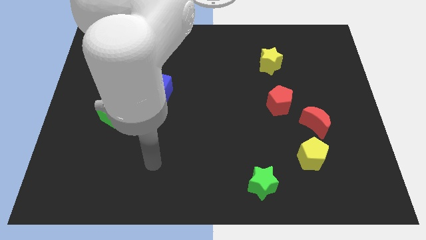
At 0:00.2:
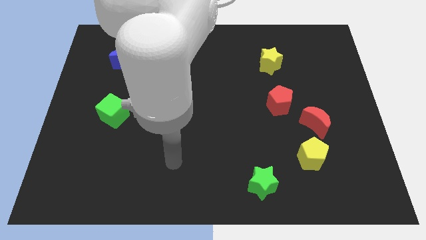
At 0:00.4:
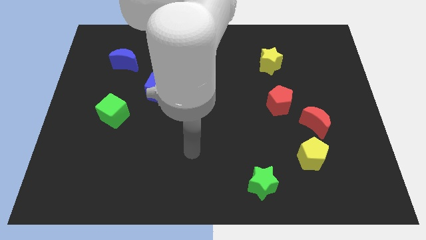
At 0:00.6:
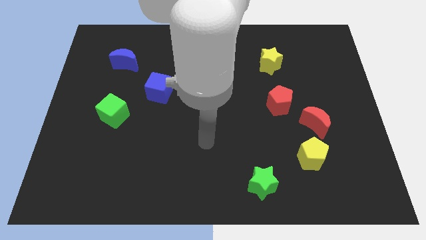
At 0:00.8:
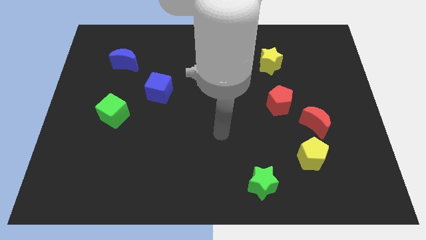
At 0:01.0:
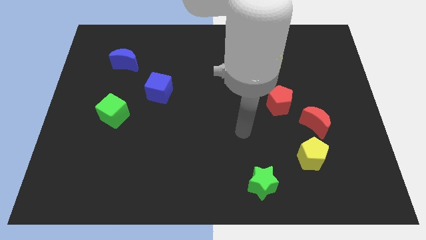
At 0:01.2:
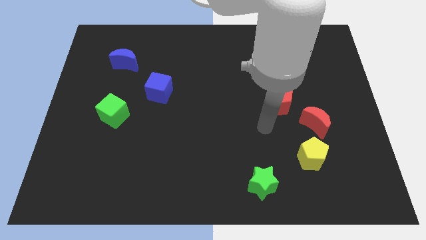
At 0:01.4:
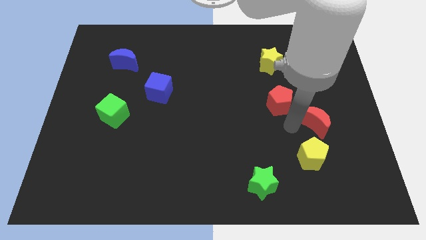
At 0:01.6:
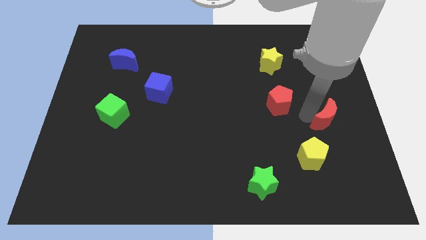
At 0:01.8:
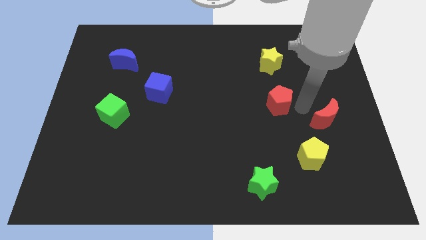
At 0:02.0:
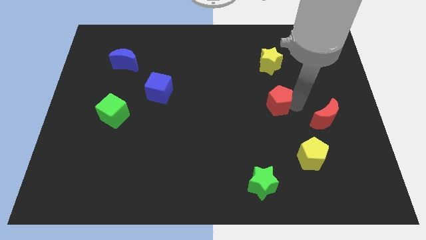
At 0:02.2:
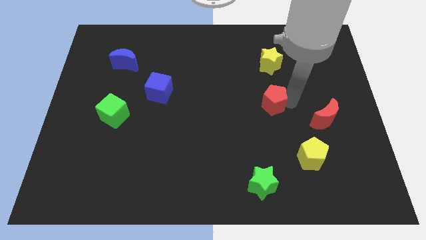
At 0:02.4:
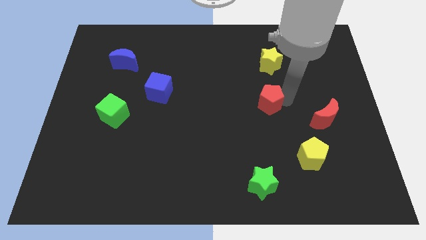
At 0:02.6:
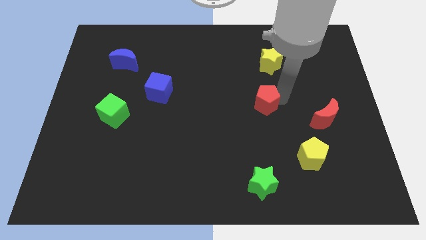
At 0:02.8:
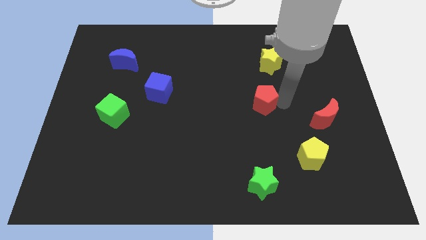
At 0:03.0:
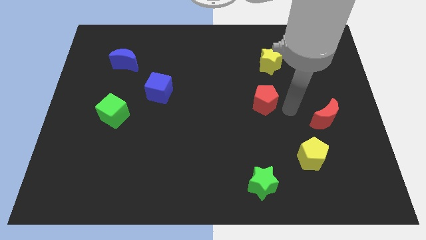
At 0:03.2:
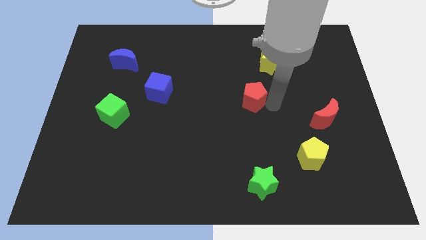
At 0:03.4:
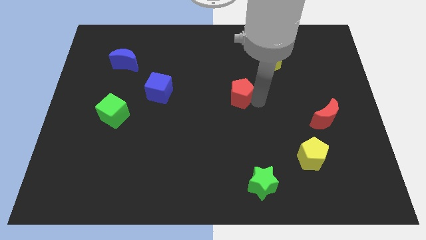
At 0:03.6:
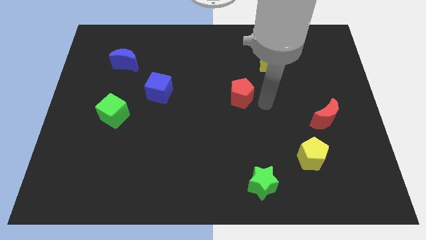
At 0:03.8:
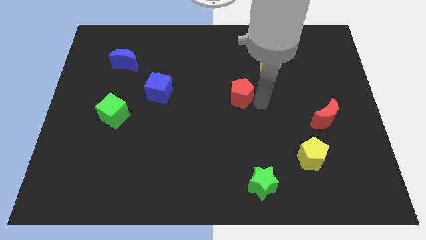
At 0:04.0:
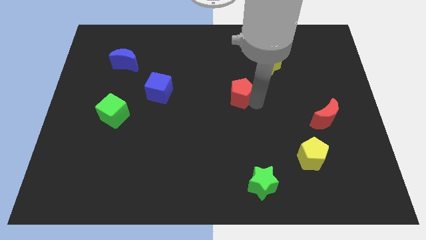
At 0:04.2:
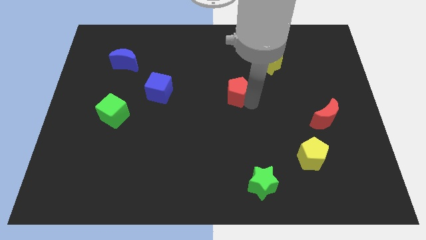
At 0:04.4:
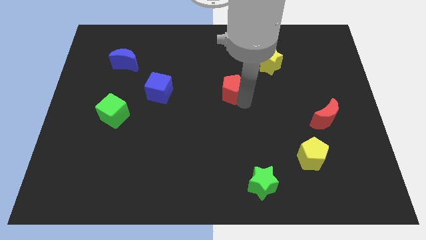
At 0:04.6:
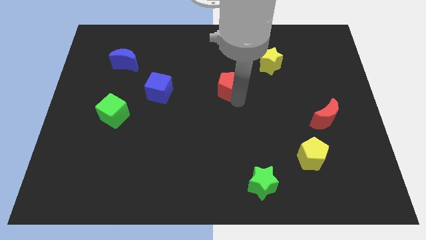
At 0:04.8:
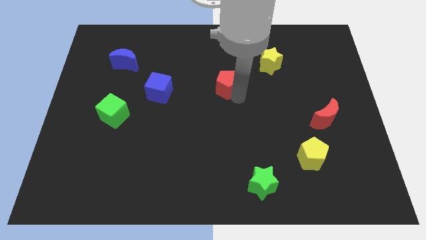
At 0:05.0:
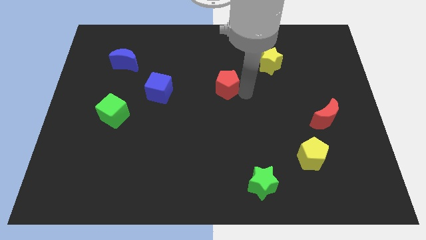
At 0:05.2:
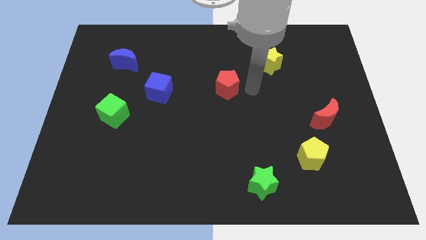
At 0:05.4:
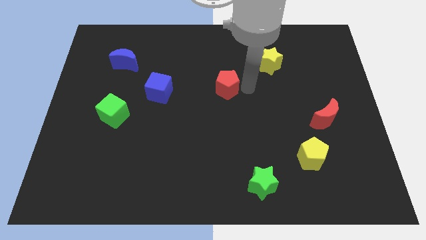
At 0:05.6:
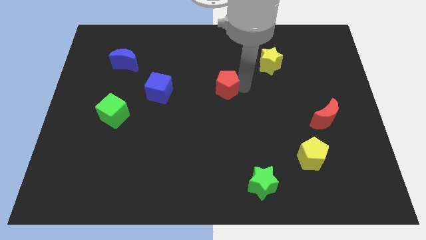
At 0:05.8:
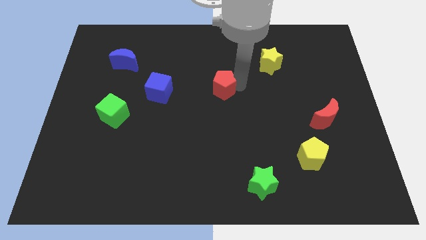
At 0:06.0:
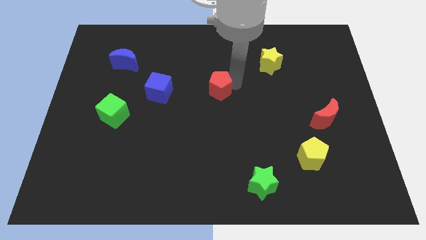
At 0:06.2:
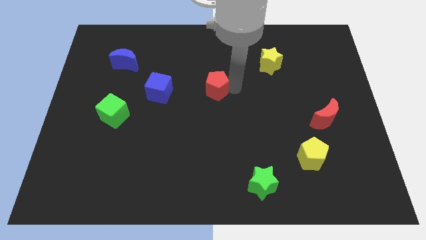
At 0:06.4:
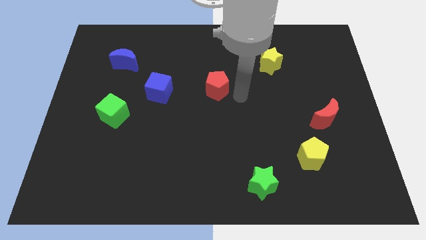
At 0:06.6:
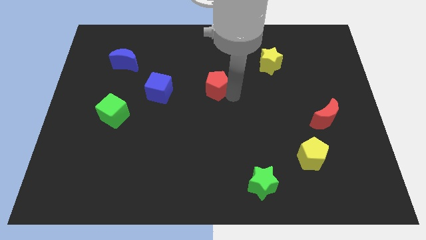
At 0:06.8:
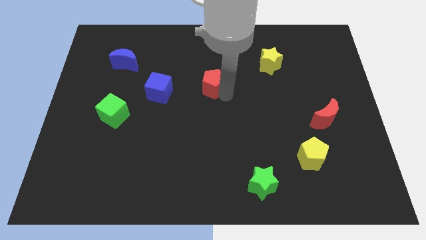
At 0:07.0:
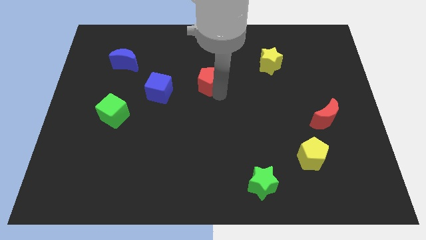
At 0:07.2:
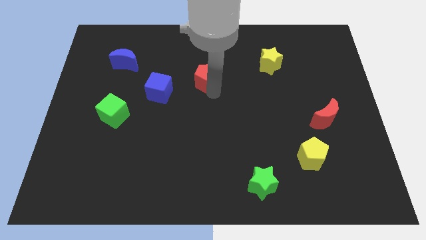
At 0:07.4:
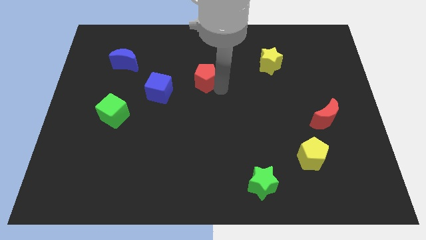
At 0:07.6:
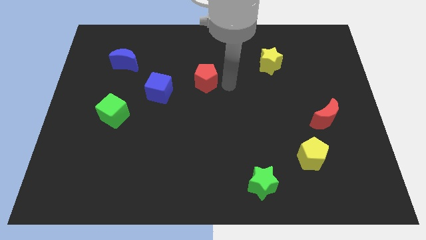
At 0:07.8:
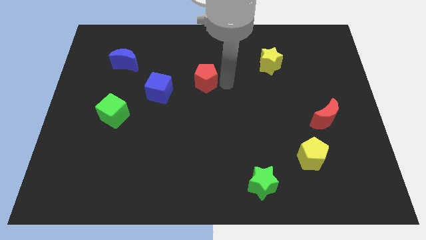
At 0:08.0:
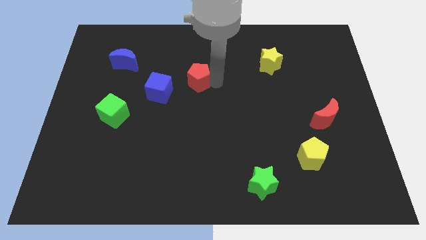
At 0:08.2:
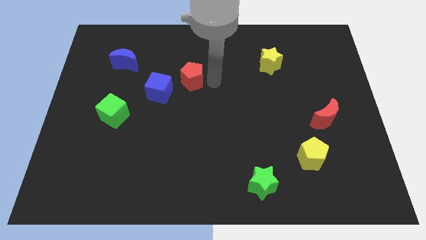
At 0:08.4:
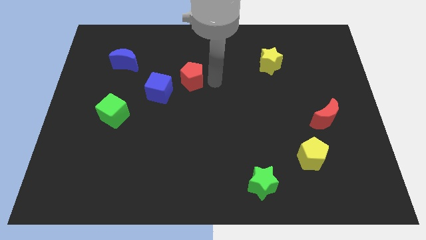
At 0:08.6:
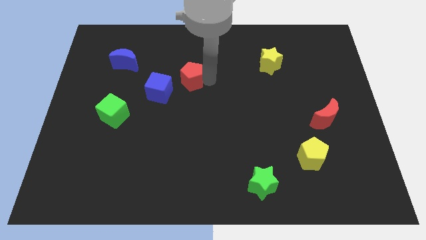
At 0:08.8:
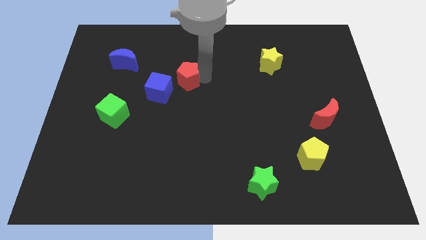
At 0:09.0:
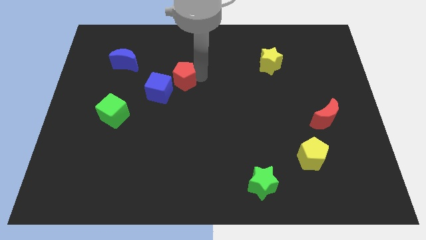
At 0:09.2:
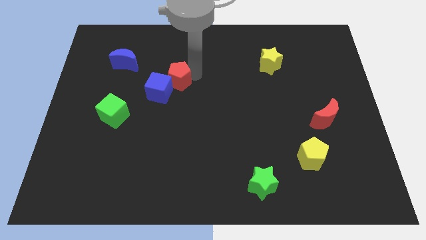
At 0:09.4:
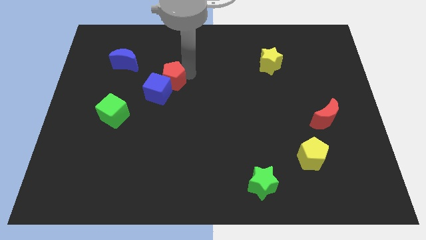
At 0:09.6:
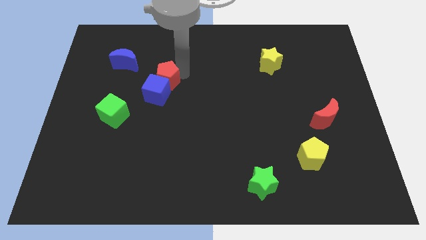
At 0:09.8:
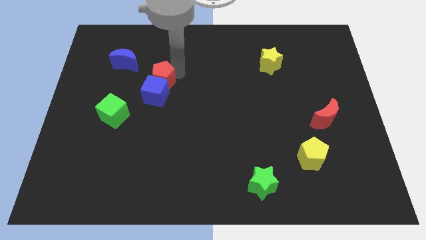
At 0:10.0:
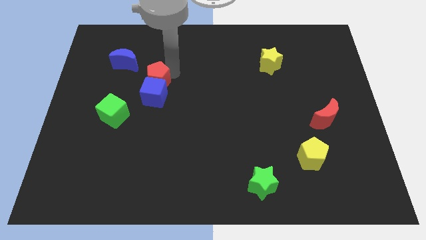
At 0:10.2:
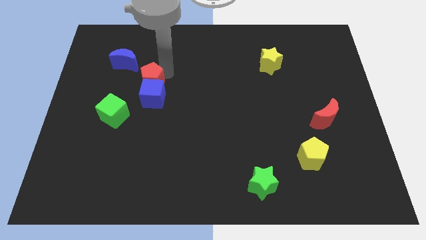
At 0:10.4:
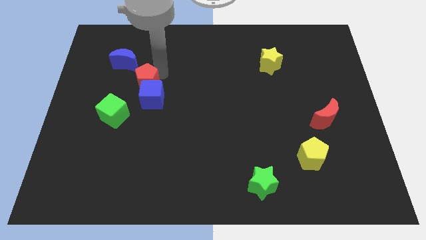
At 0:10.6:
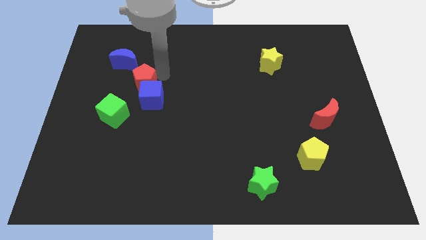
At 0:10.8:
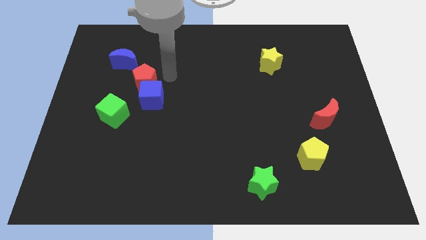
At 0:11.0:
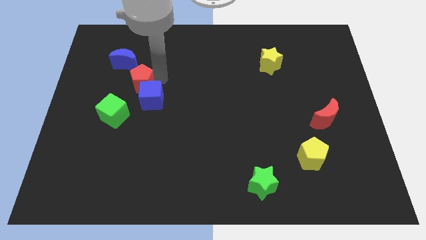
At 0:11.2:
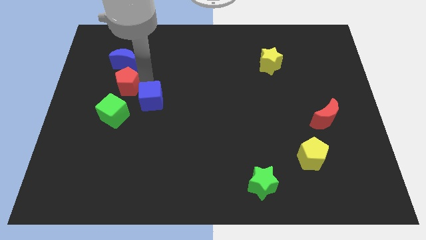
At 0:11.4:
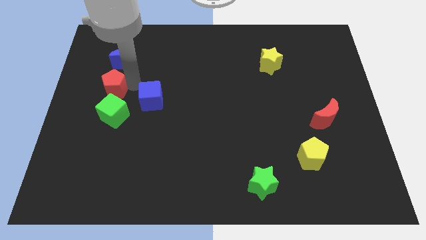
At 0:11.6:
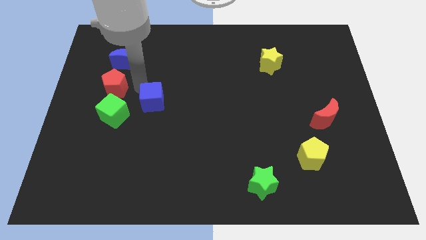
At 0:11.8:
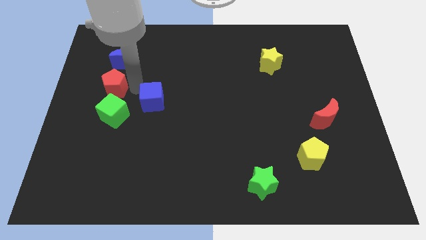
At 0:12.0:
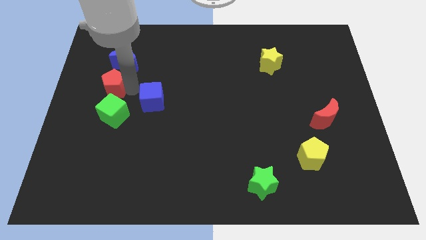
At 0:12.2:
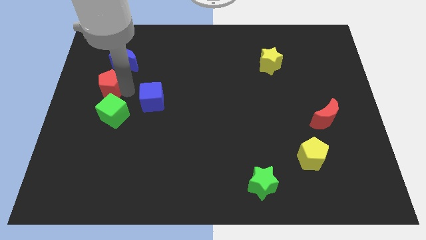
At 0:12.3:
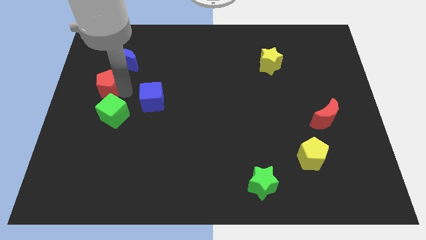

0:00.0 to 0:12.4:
move the red pentagon to the left side of the board

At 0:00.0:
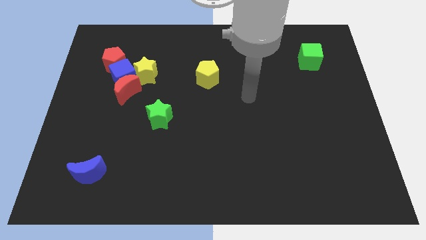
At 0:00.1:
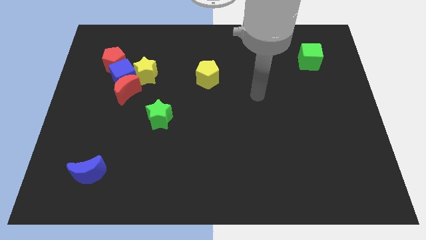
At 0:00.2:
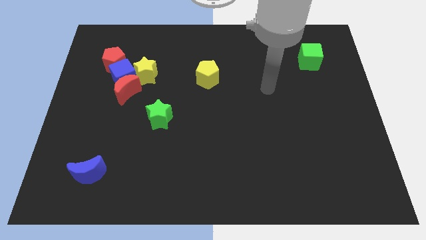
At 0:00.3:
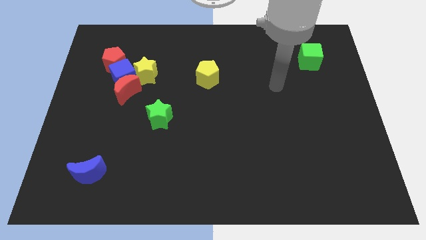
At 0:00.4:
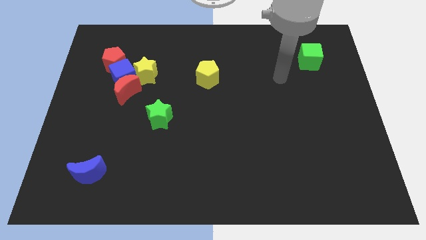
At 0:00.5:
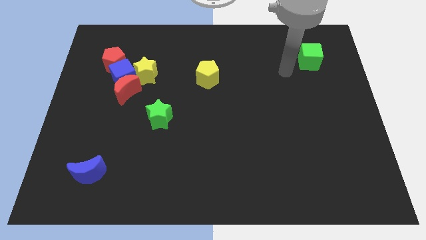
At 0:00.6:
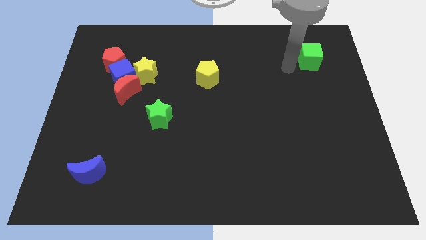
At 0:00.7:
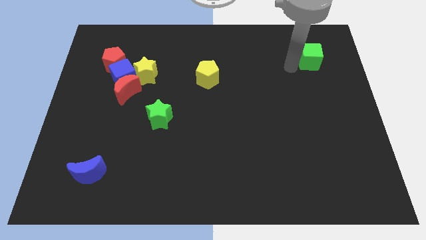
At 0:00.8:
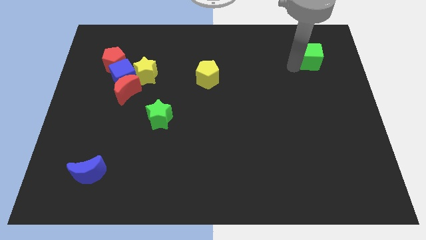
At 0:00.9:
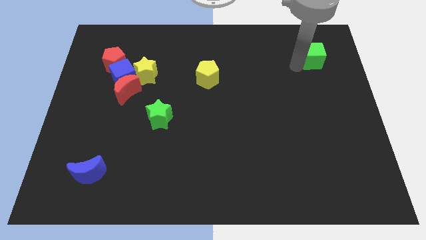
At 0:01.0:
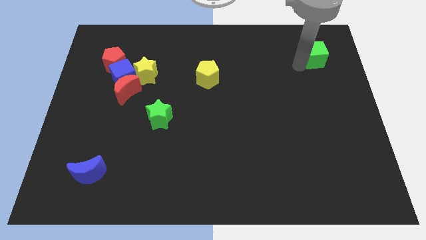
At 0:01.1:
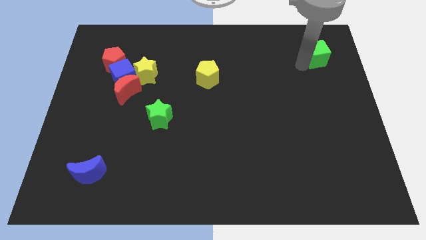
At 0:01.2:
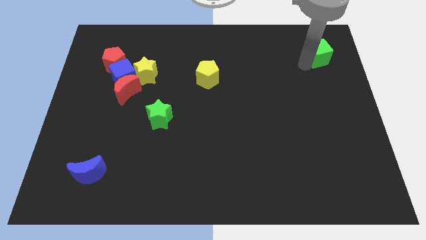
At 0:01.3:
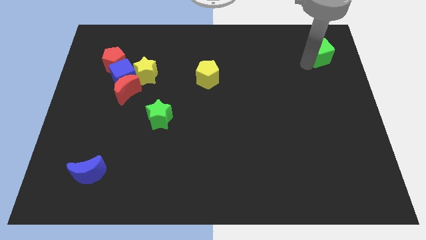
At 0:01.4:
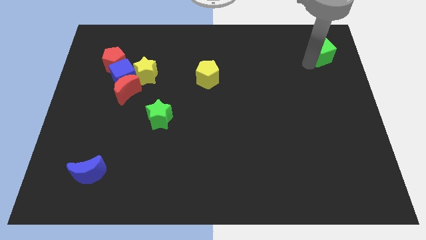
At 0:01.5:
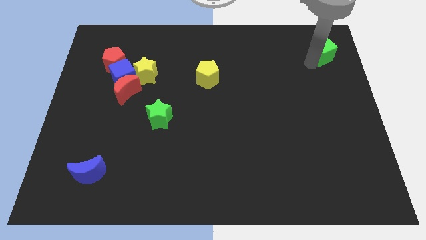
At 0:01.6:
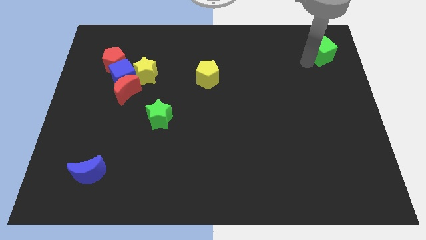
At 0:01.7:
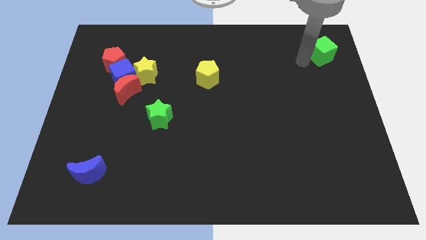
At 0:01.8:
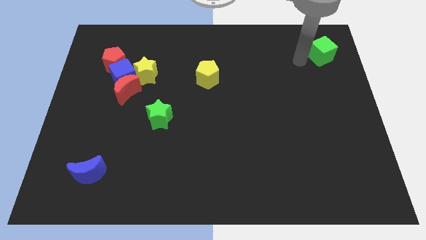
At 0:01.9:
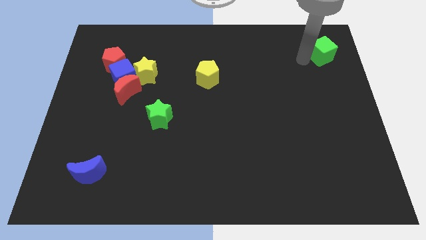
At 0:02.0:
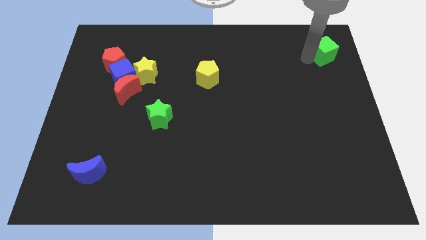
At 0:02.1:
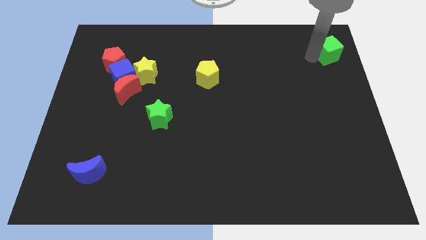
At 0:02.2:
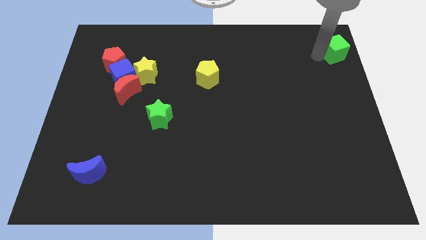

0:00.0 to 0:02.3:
slide the green cube to the top right corner
